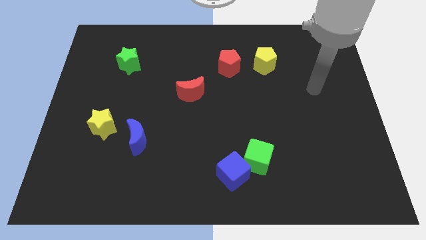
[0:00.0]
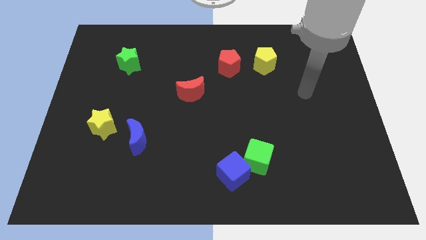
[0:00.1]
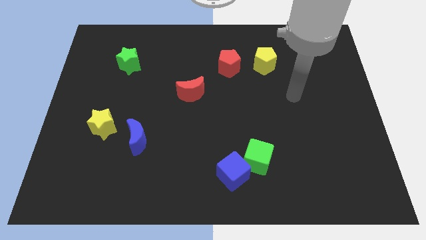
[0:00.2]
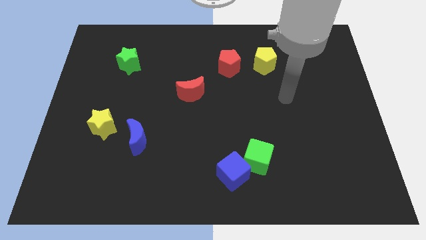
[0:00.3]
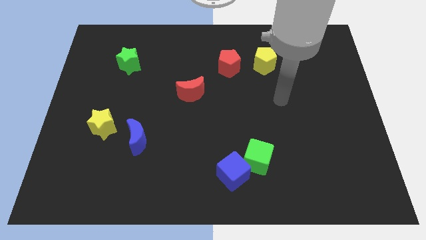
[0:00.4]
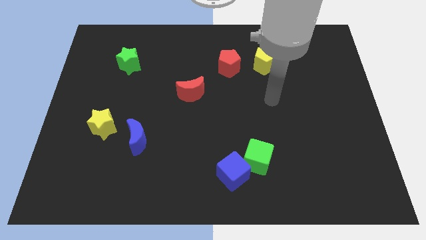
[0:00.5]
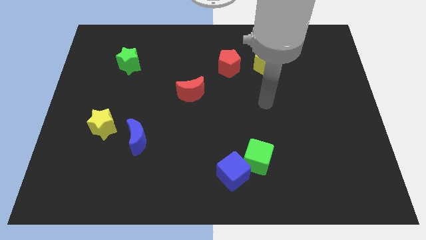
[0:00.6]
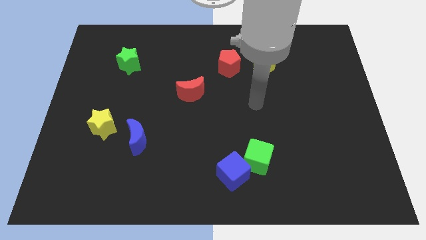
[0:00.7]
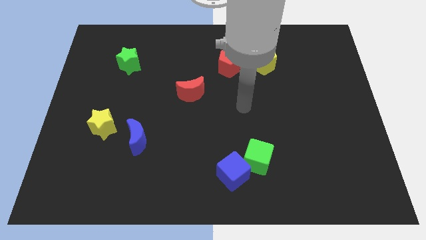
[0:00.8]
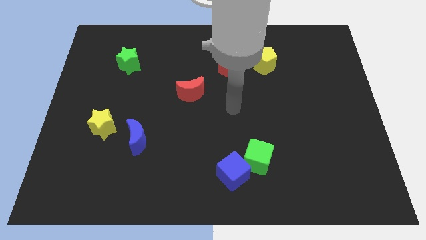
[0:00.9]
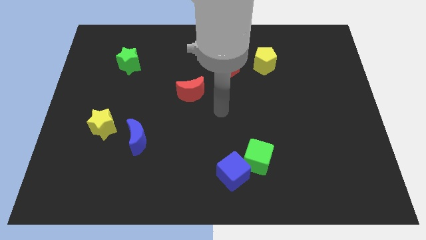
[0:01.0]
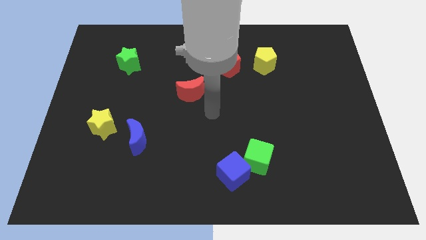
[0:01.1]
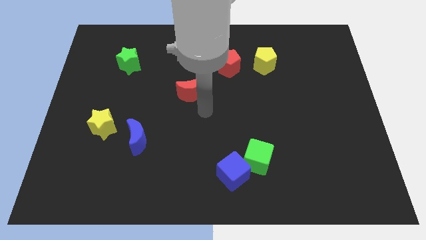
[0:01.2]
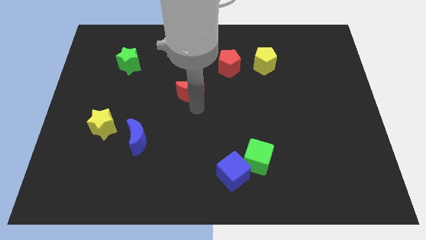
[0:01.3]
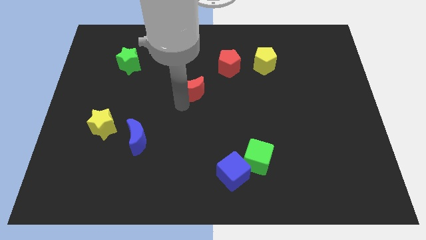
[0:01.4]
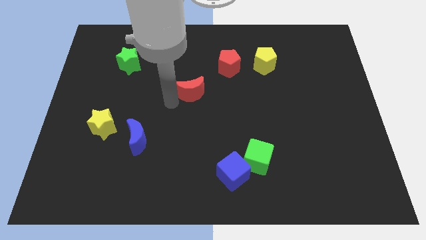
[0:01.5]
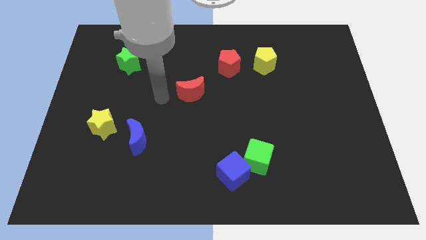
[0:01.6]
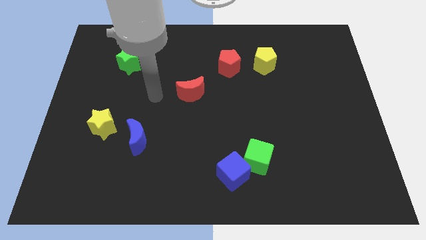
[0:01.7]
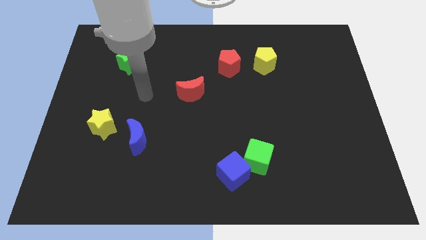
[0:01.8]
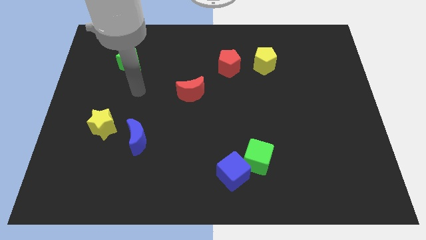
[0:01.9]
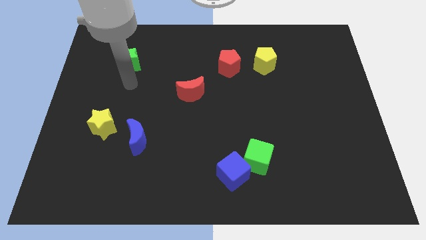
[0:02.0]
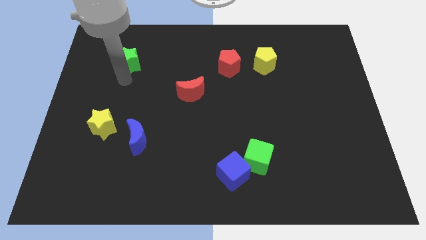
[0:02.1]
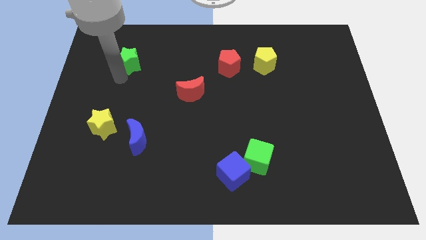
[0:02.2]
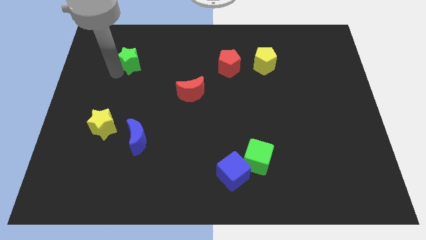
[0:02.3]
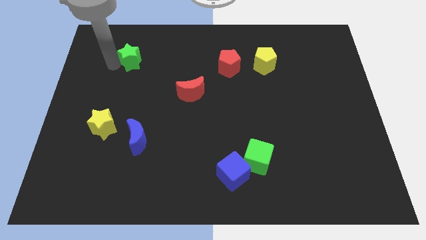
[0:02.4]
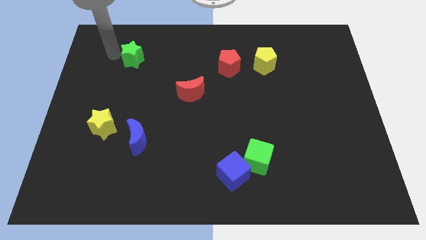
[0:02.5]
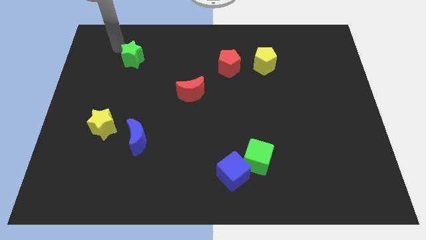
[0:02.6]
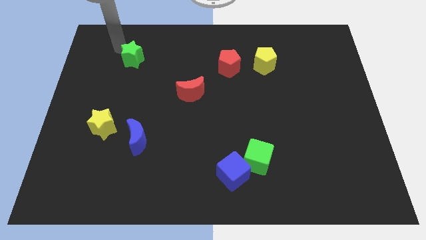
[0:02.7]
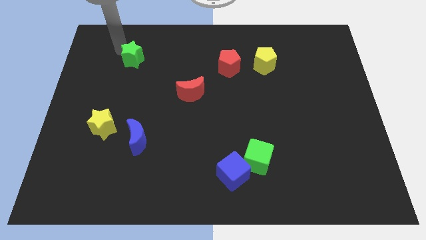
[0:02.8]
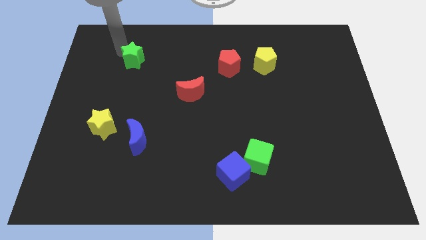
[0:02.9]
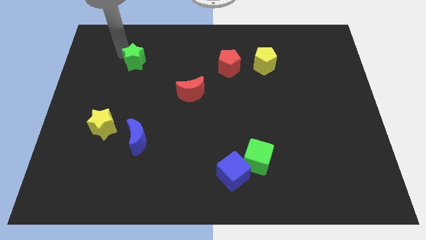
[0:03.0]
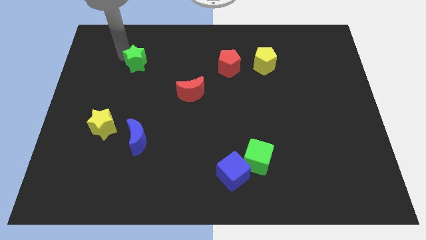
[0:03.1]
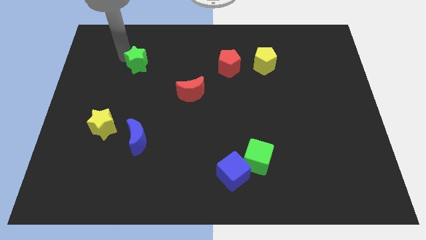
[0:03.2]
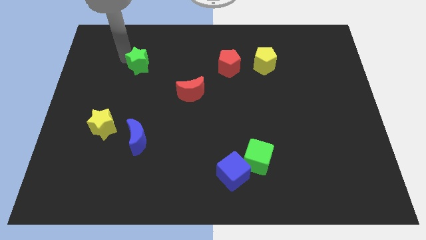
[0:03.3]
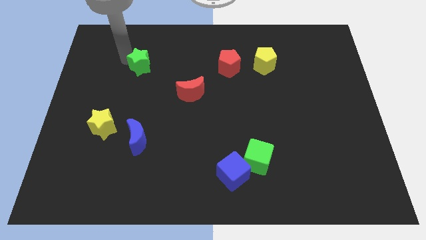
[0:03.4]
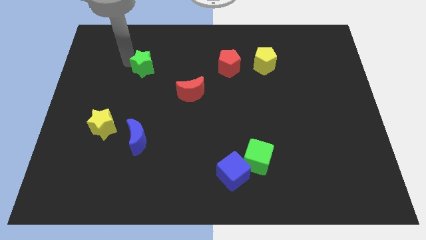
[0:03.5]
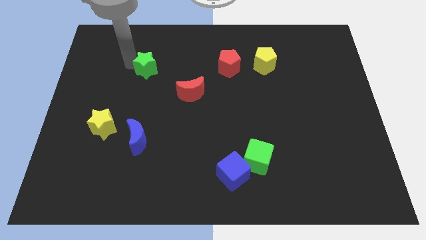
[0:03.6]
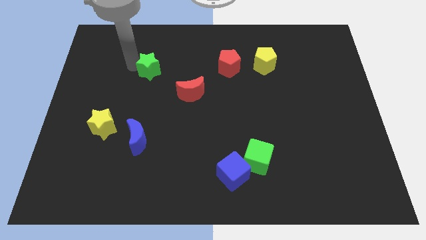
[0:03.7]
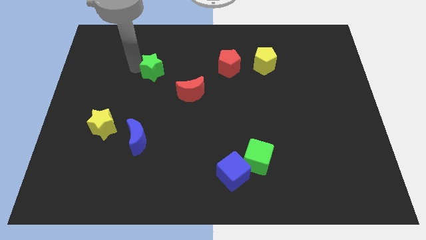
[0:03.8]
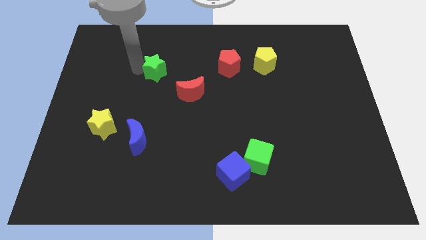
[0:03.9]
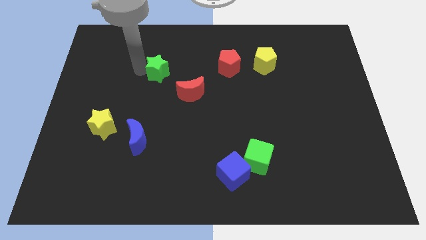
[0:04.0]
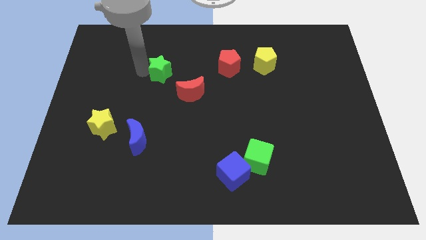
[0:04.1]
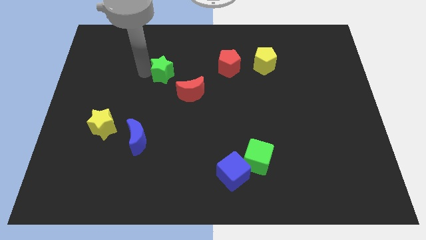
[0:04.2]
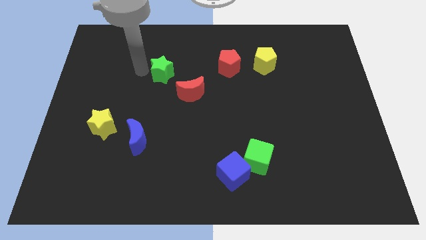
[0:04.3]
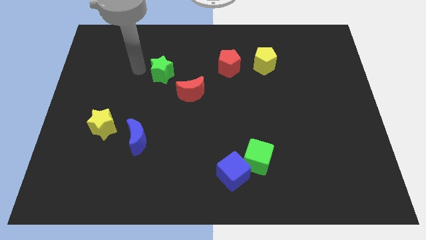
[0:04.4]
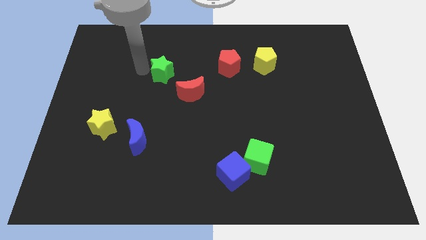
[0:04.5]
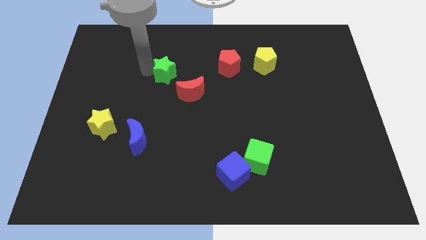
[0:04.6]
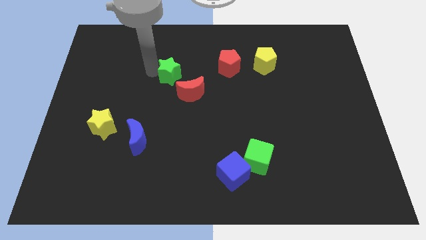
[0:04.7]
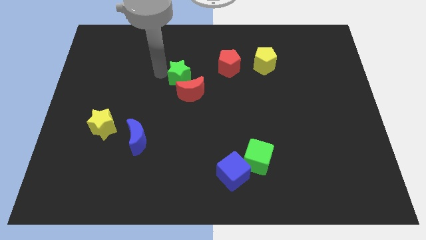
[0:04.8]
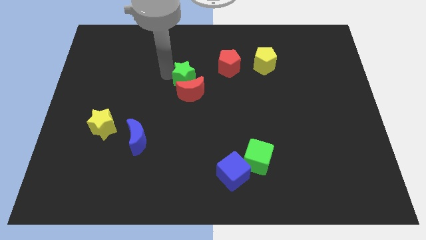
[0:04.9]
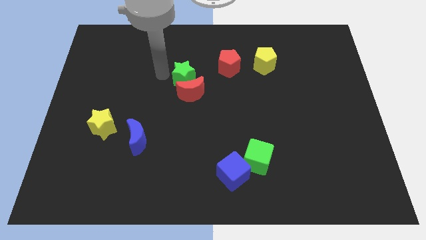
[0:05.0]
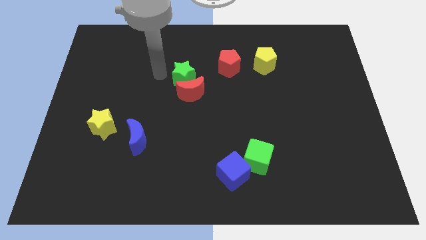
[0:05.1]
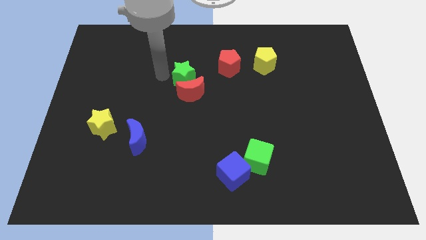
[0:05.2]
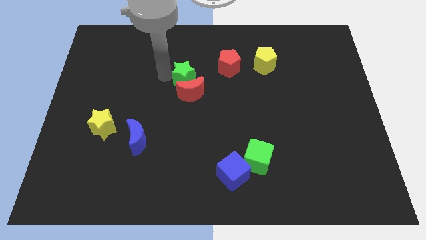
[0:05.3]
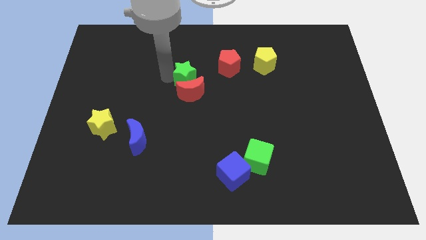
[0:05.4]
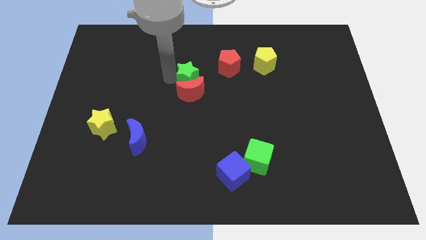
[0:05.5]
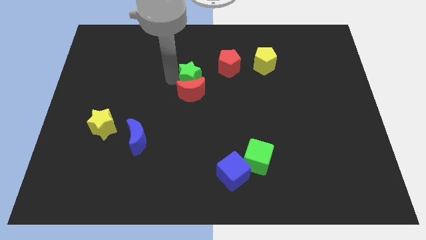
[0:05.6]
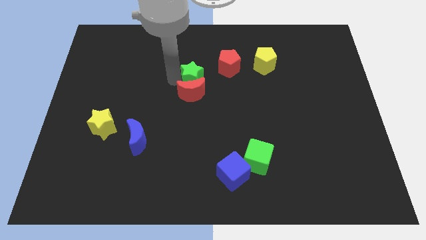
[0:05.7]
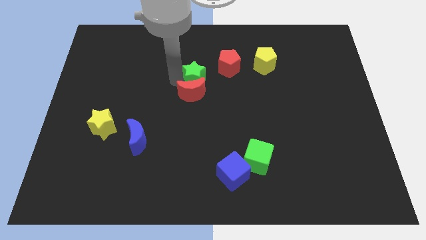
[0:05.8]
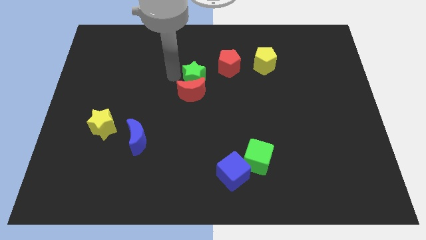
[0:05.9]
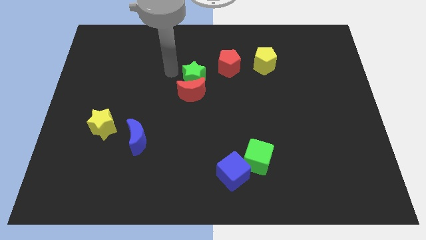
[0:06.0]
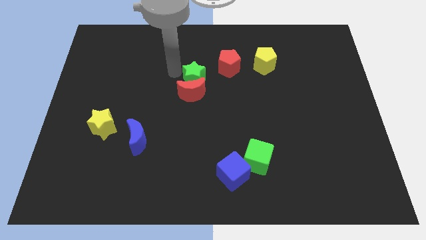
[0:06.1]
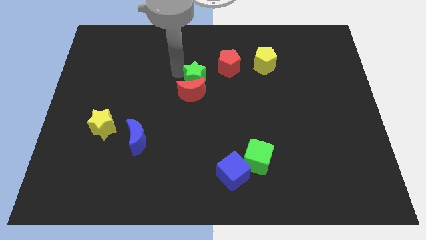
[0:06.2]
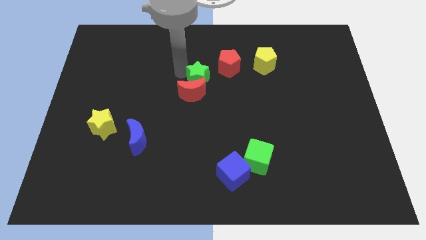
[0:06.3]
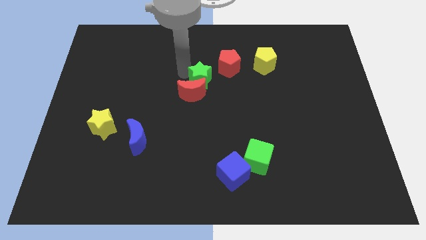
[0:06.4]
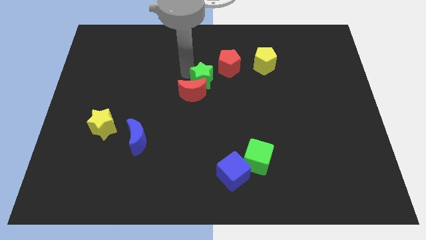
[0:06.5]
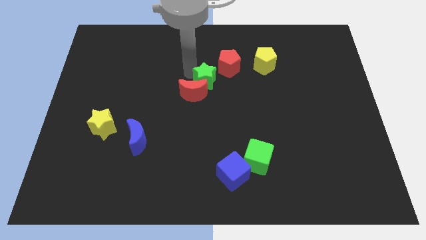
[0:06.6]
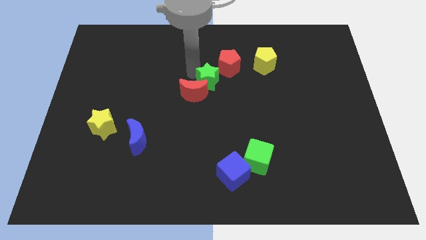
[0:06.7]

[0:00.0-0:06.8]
put the green star right of the red moon
